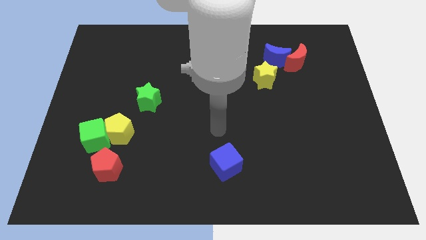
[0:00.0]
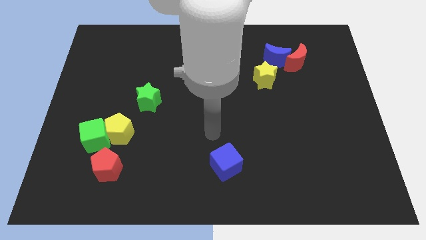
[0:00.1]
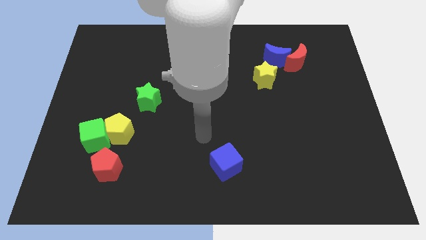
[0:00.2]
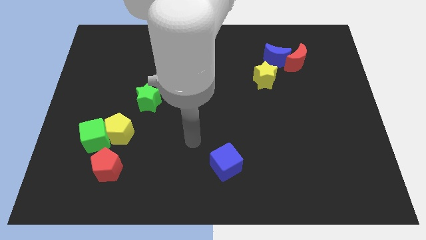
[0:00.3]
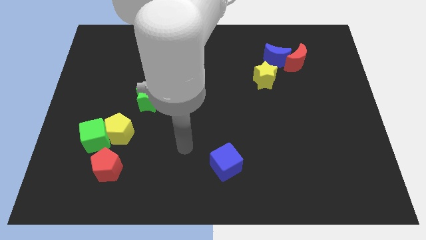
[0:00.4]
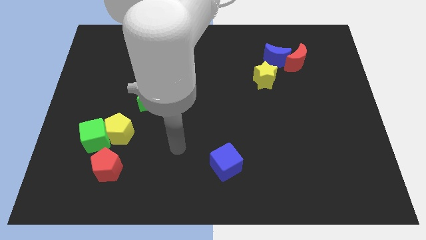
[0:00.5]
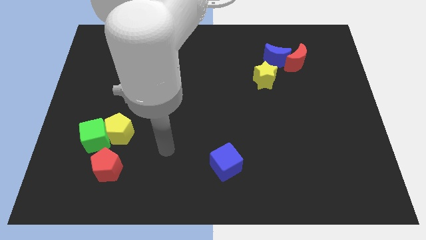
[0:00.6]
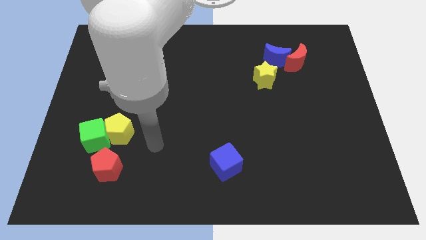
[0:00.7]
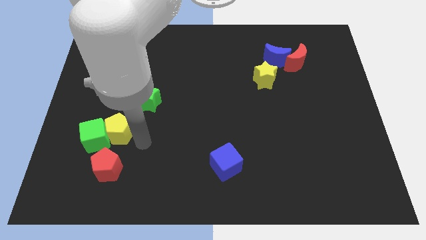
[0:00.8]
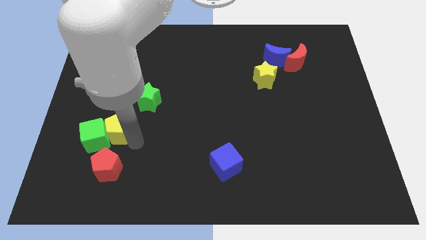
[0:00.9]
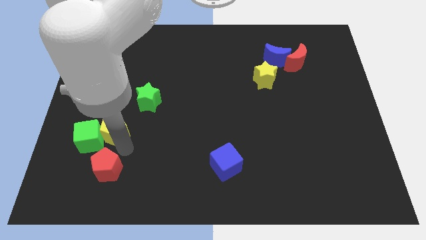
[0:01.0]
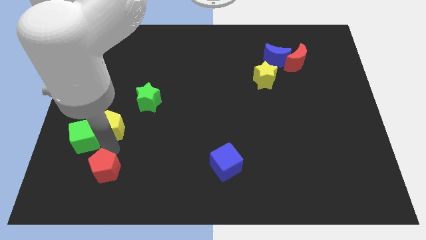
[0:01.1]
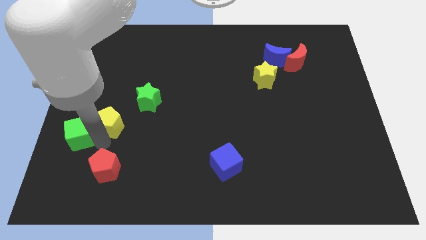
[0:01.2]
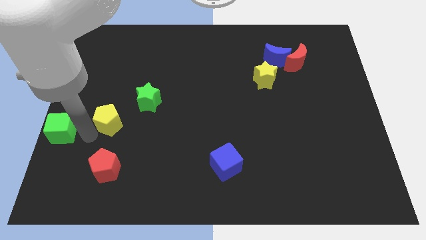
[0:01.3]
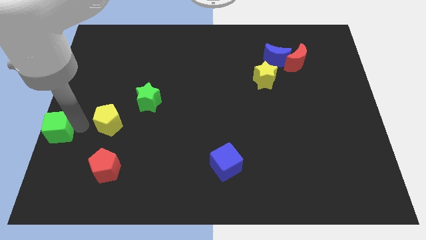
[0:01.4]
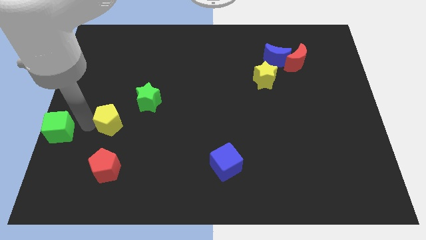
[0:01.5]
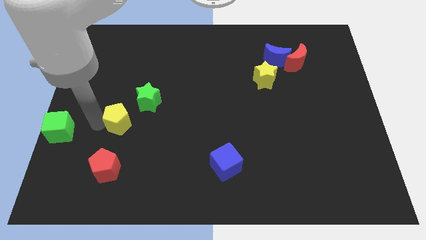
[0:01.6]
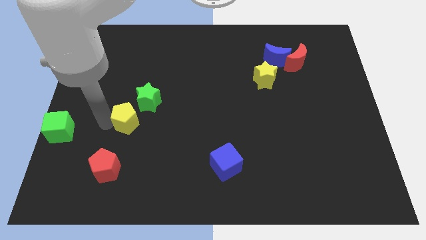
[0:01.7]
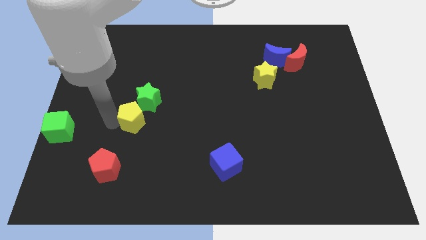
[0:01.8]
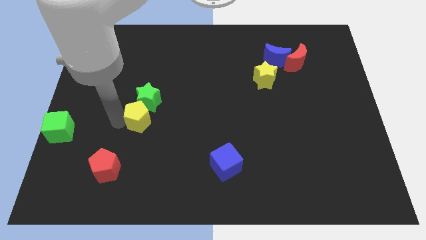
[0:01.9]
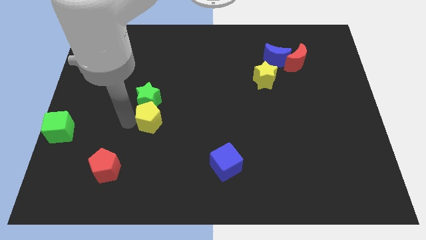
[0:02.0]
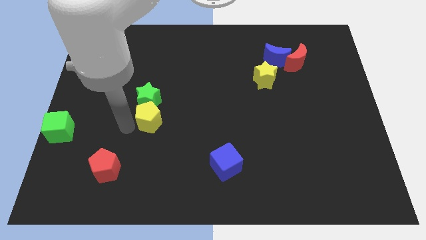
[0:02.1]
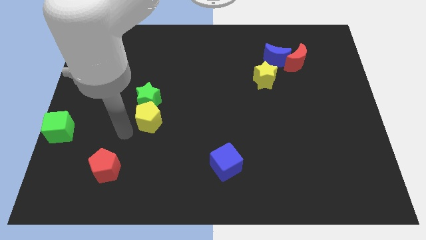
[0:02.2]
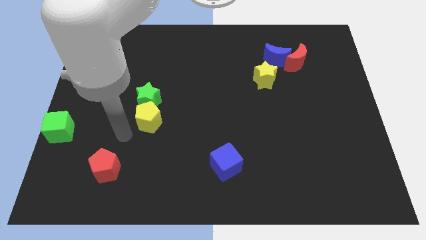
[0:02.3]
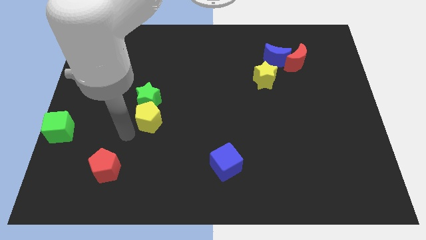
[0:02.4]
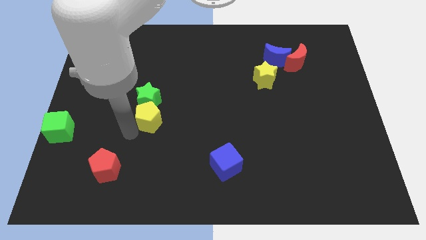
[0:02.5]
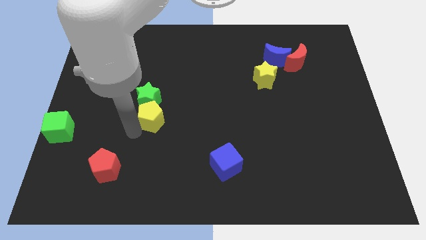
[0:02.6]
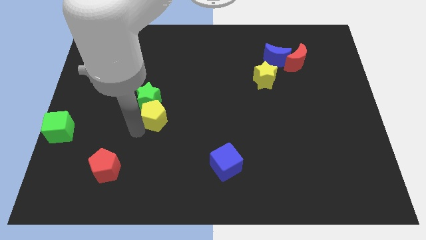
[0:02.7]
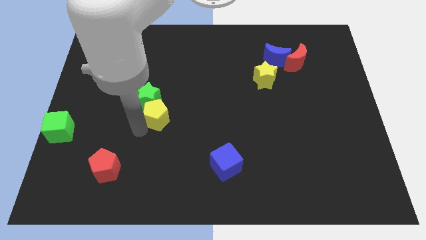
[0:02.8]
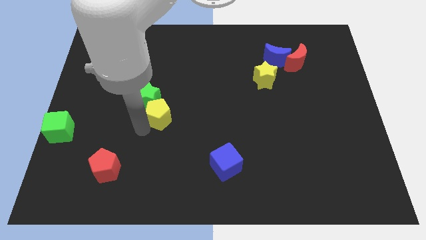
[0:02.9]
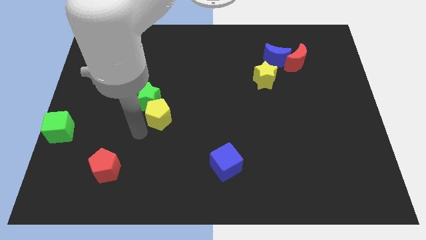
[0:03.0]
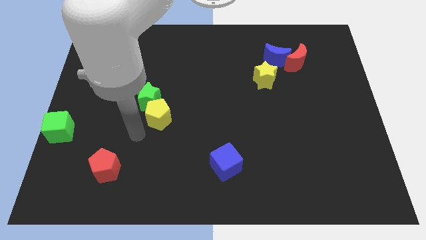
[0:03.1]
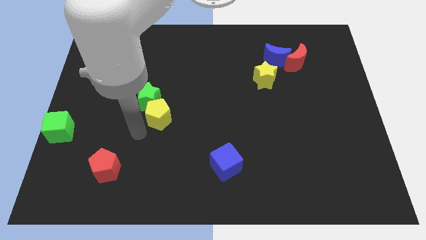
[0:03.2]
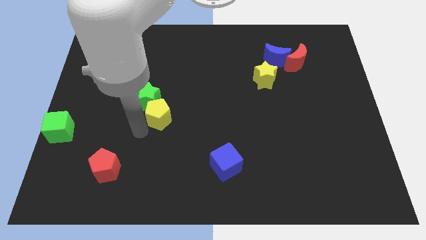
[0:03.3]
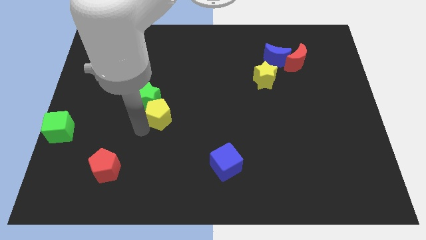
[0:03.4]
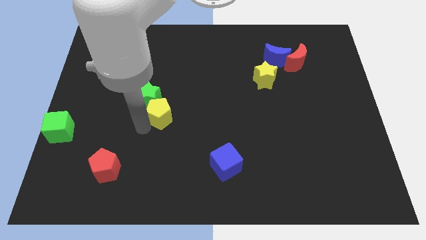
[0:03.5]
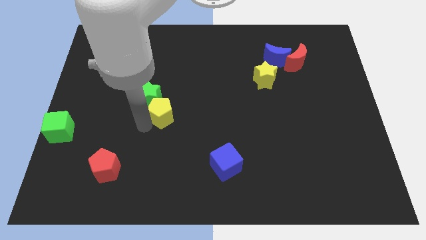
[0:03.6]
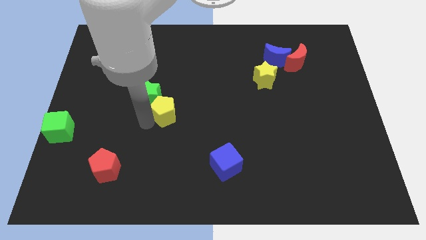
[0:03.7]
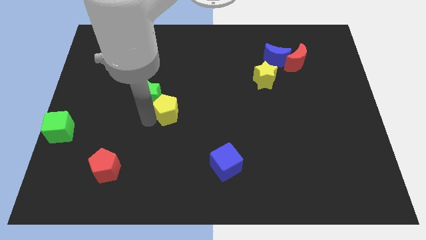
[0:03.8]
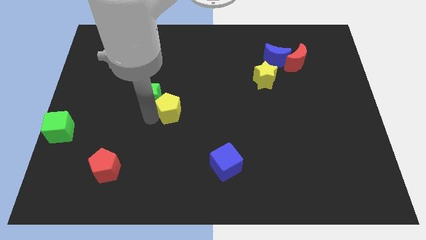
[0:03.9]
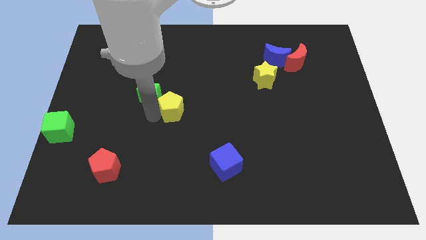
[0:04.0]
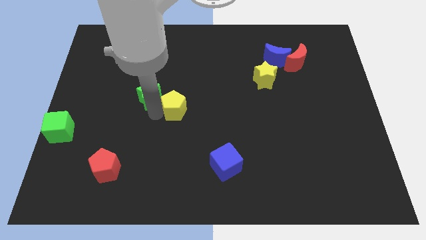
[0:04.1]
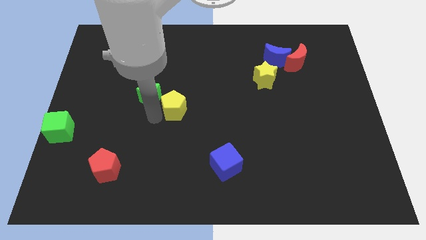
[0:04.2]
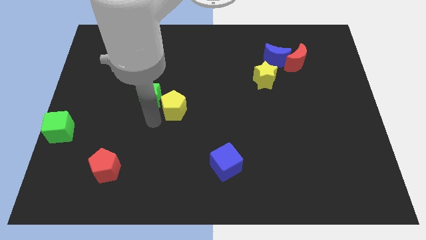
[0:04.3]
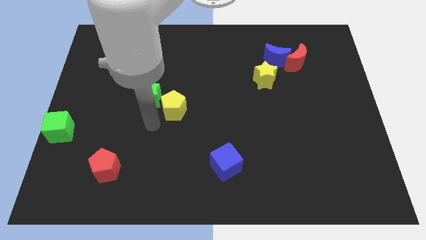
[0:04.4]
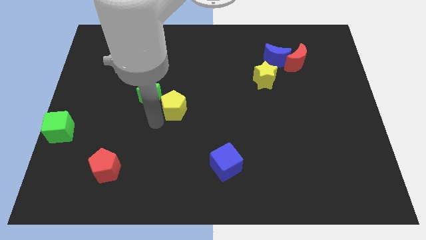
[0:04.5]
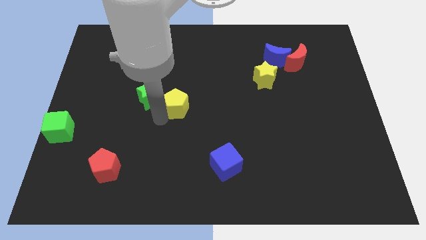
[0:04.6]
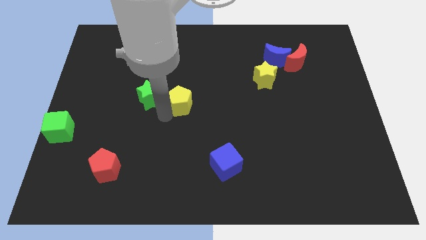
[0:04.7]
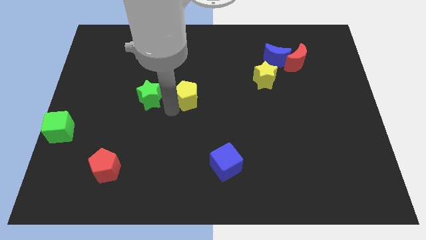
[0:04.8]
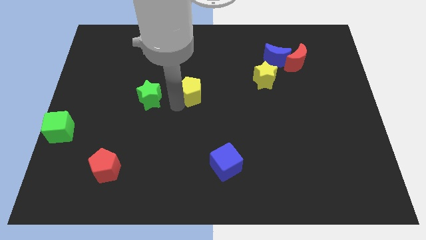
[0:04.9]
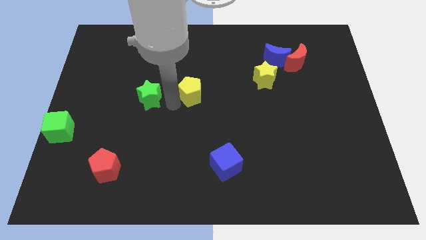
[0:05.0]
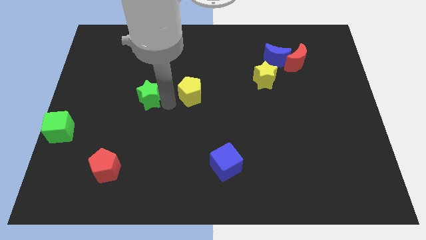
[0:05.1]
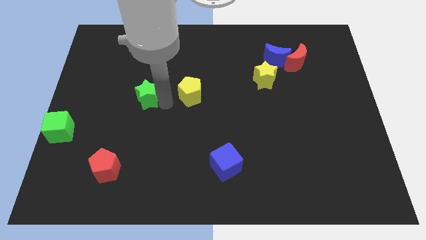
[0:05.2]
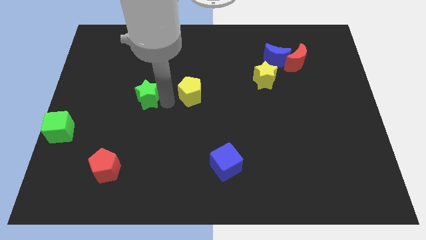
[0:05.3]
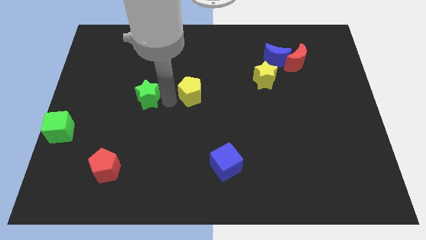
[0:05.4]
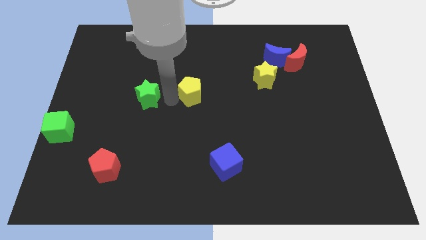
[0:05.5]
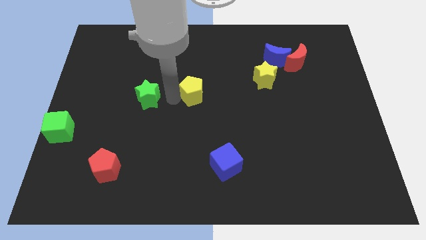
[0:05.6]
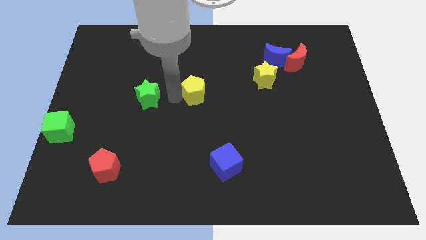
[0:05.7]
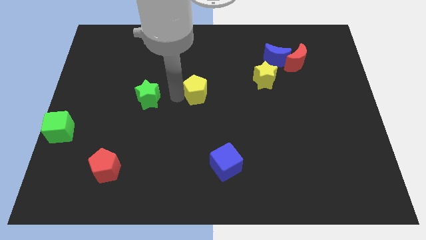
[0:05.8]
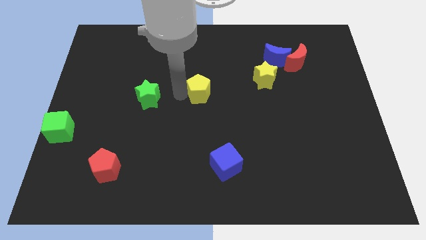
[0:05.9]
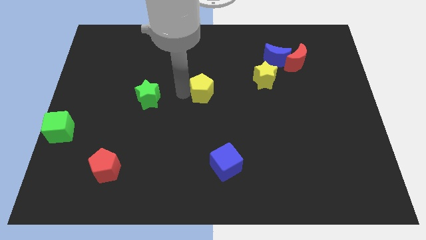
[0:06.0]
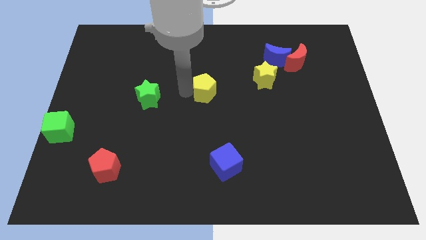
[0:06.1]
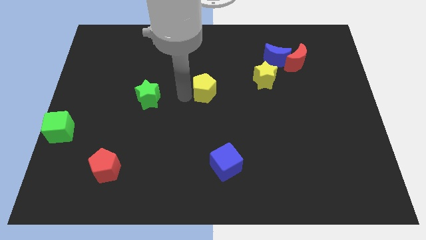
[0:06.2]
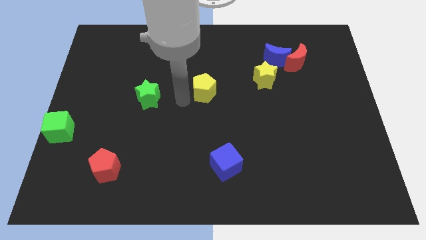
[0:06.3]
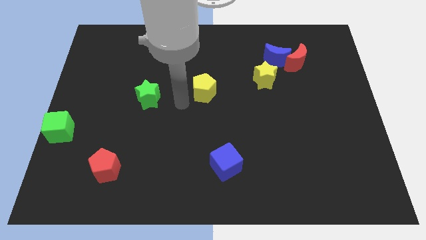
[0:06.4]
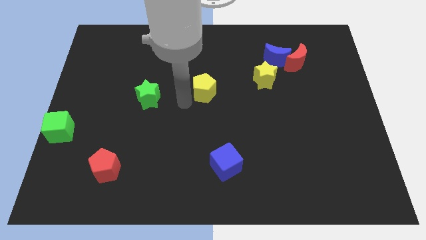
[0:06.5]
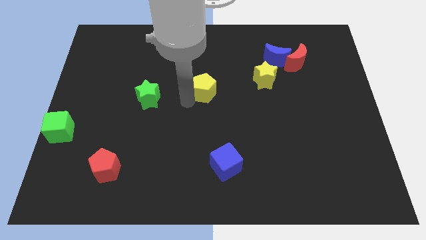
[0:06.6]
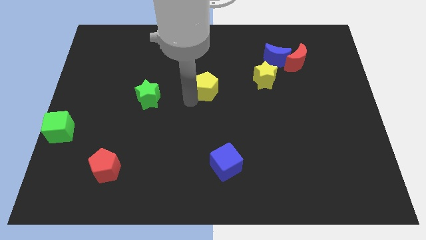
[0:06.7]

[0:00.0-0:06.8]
push the yellow pentagon just left of the yellow star
